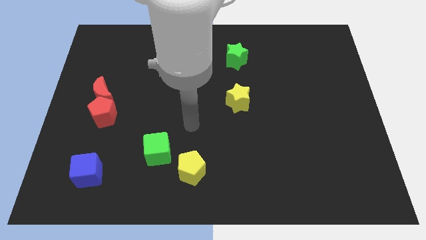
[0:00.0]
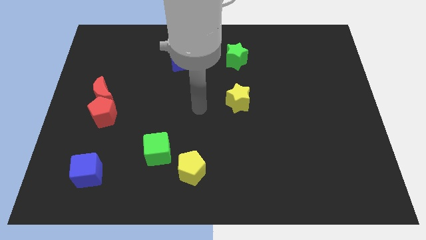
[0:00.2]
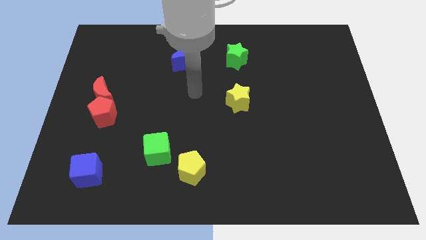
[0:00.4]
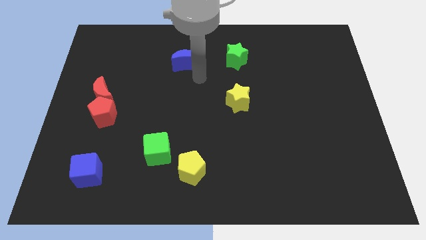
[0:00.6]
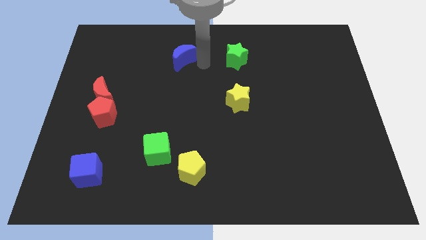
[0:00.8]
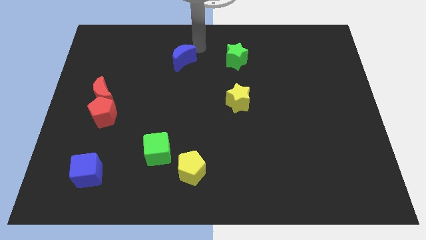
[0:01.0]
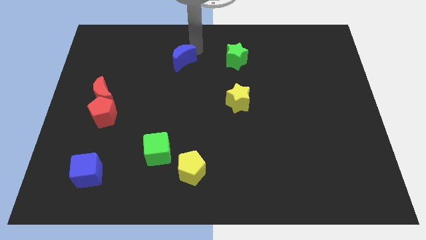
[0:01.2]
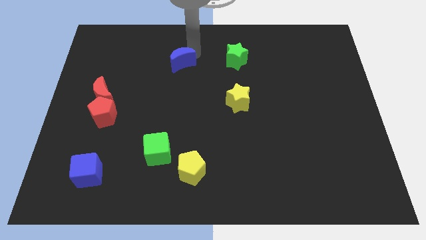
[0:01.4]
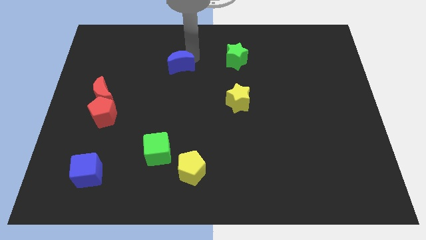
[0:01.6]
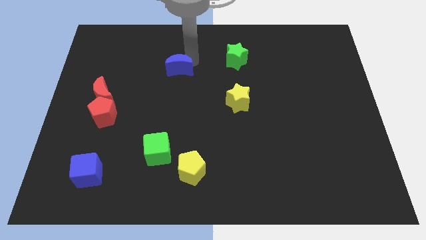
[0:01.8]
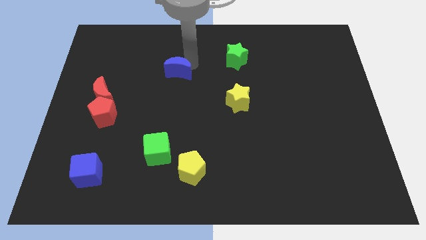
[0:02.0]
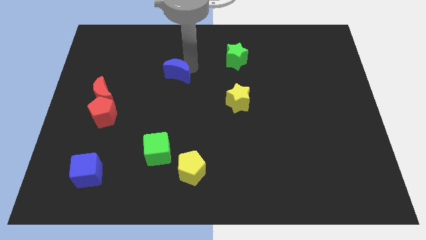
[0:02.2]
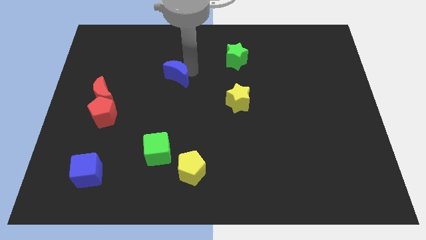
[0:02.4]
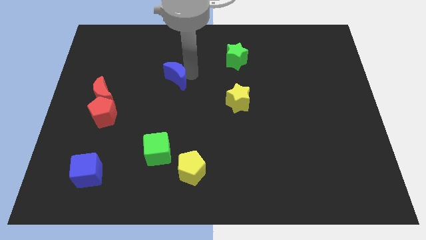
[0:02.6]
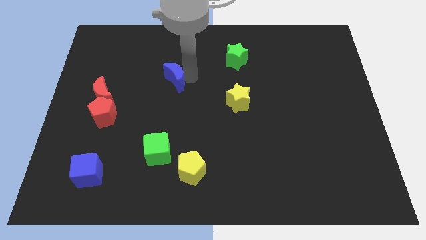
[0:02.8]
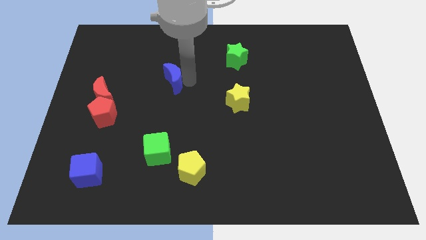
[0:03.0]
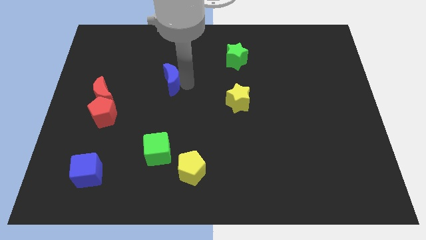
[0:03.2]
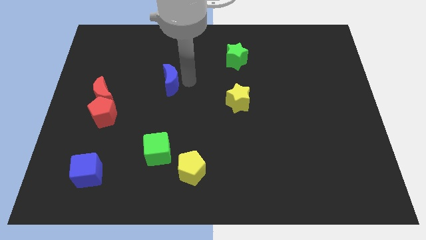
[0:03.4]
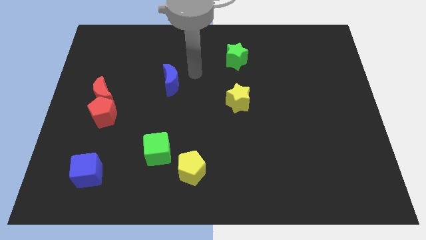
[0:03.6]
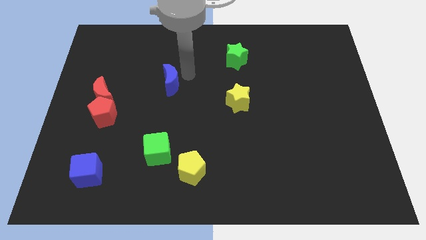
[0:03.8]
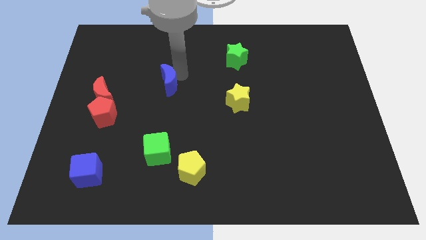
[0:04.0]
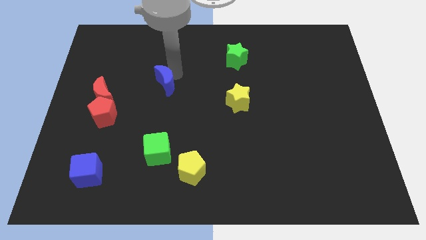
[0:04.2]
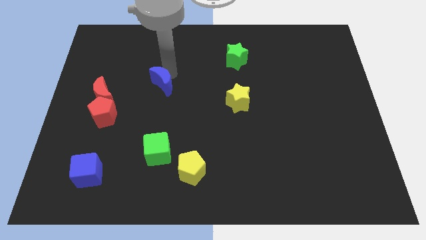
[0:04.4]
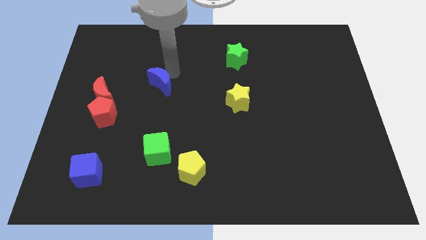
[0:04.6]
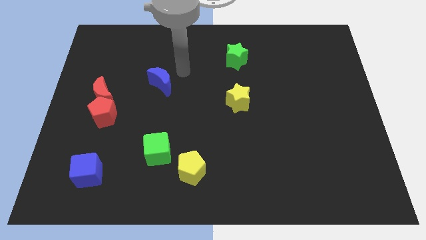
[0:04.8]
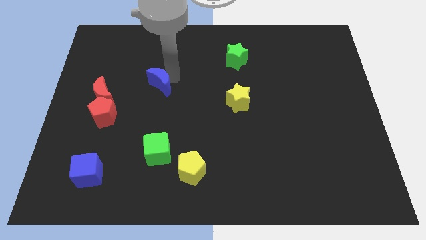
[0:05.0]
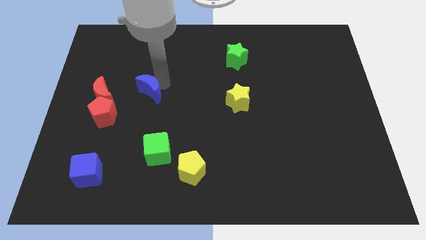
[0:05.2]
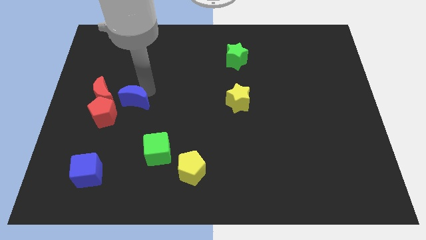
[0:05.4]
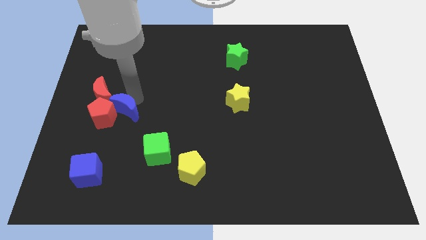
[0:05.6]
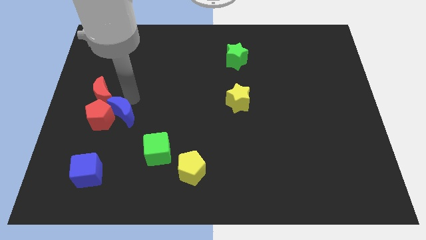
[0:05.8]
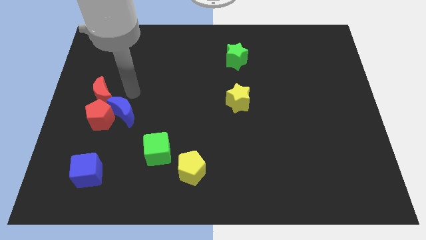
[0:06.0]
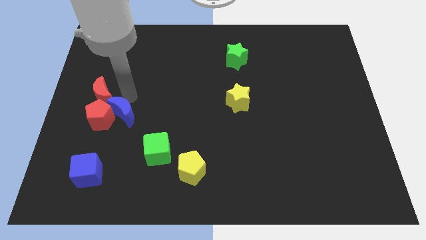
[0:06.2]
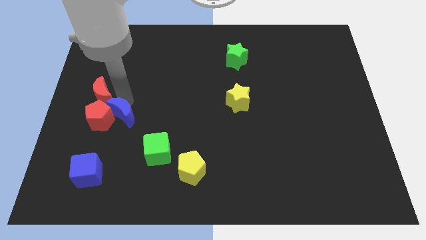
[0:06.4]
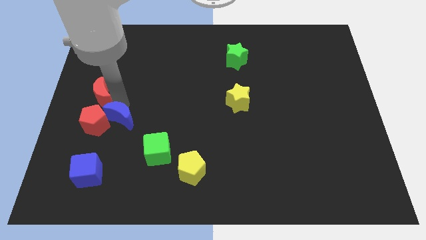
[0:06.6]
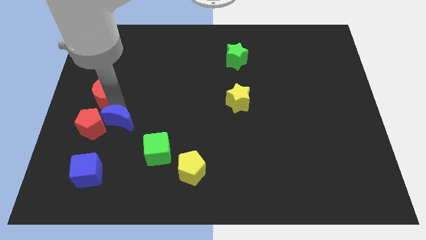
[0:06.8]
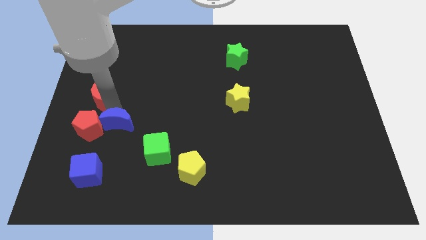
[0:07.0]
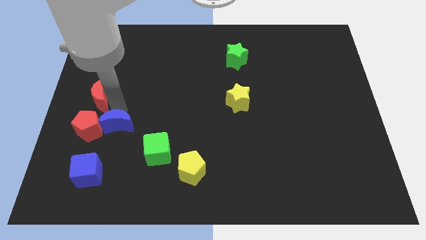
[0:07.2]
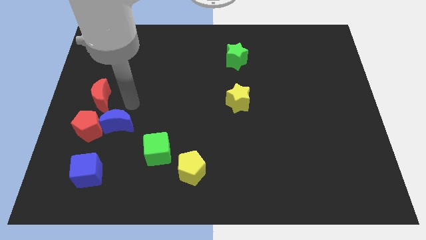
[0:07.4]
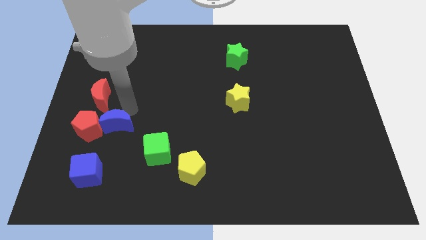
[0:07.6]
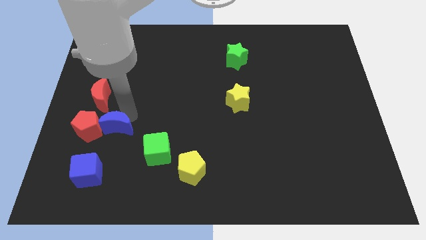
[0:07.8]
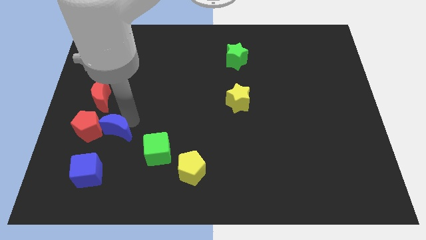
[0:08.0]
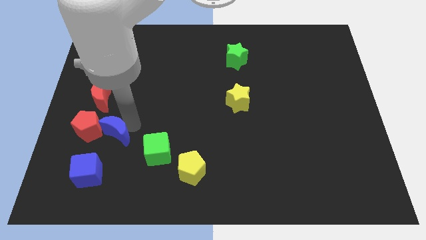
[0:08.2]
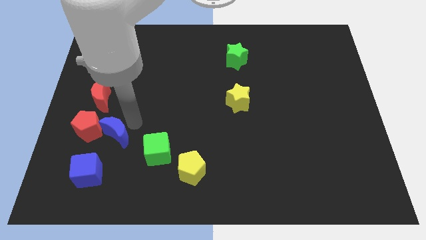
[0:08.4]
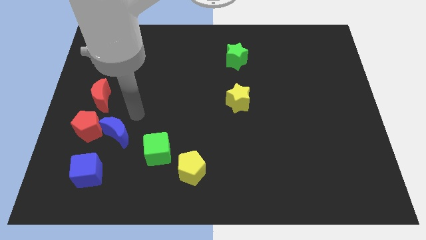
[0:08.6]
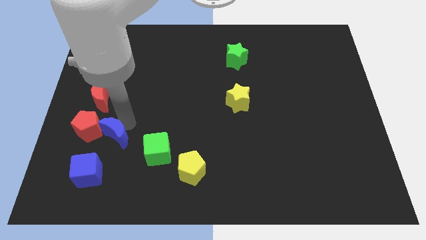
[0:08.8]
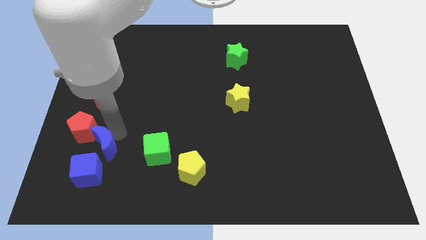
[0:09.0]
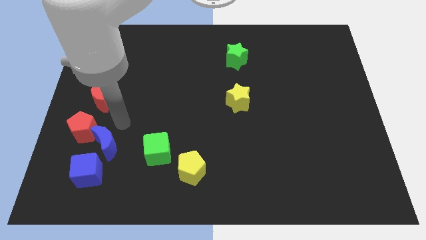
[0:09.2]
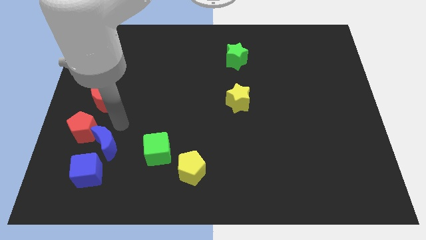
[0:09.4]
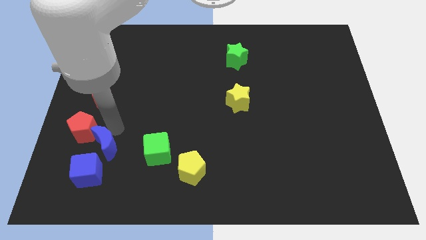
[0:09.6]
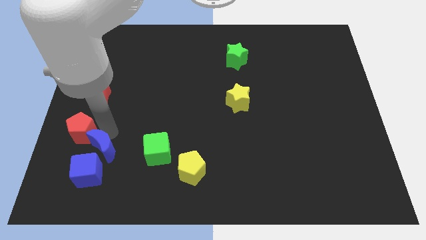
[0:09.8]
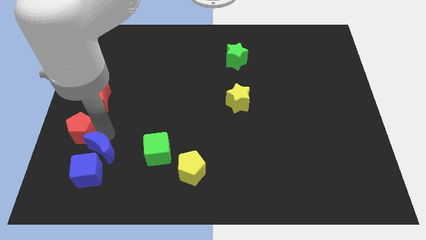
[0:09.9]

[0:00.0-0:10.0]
put the blue moon towards the blue cube

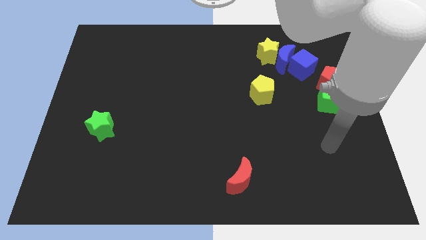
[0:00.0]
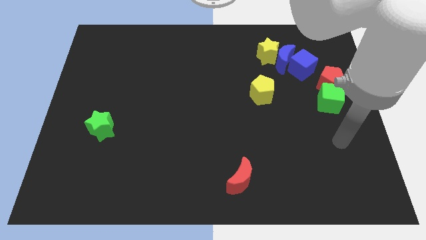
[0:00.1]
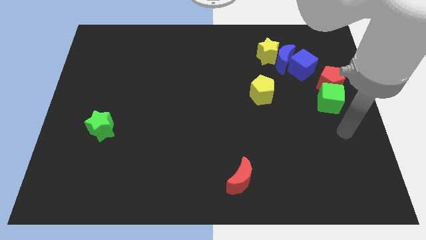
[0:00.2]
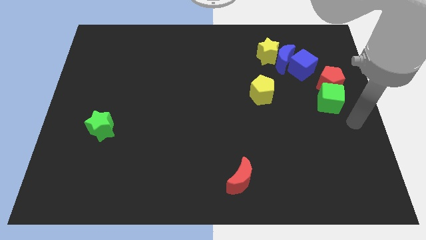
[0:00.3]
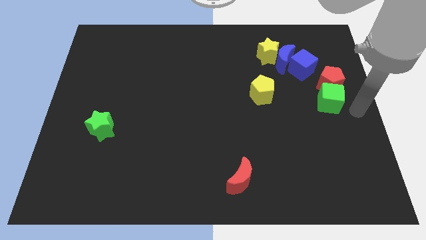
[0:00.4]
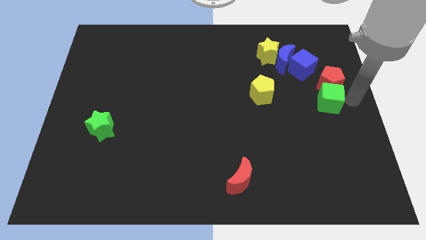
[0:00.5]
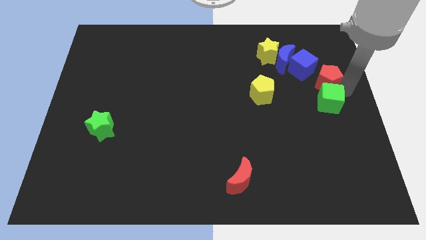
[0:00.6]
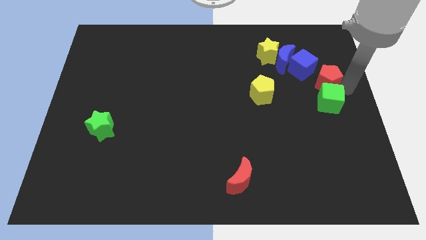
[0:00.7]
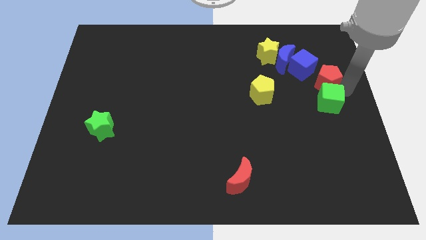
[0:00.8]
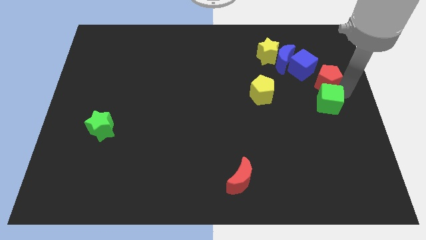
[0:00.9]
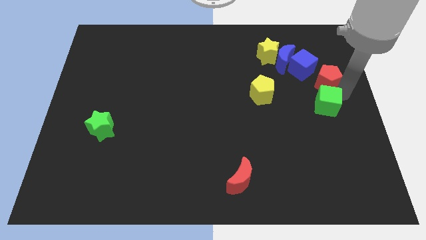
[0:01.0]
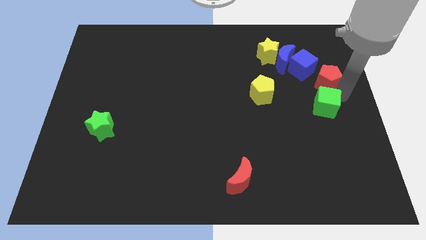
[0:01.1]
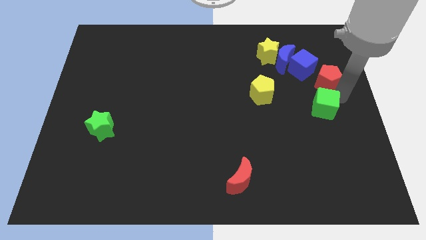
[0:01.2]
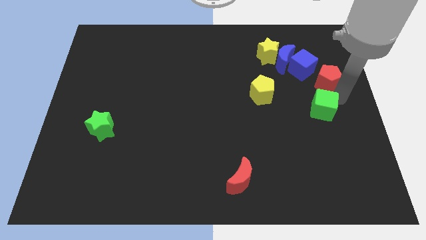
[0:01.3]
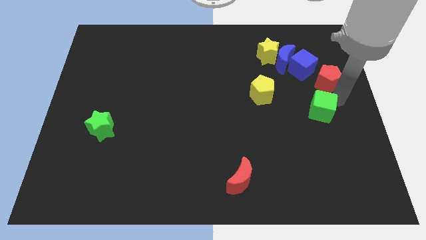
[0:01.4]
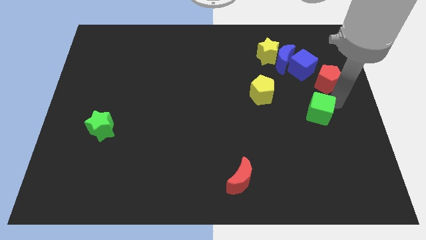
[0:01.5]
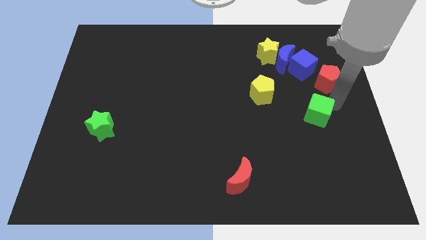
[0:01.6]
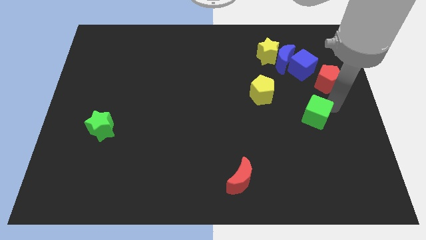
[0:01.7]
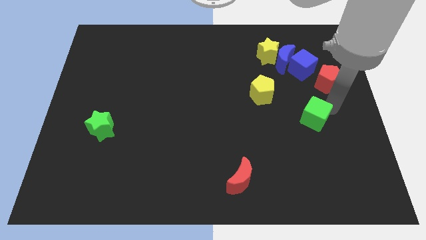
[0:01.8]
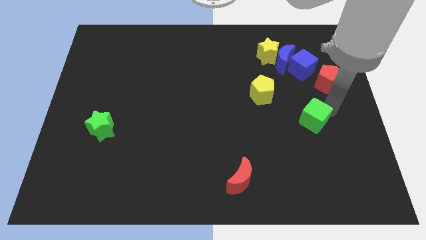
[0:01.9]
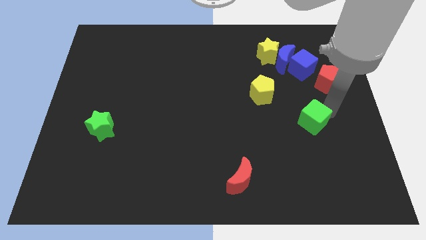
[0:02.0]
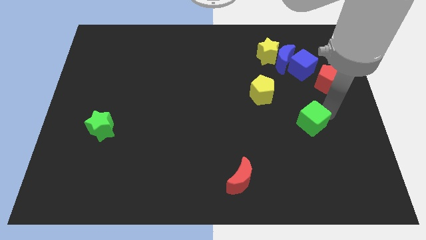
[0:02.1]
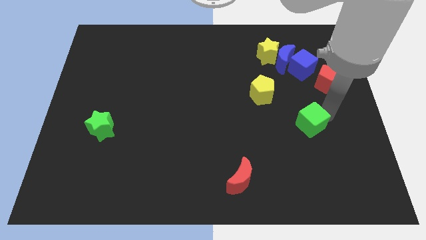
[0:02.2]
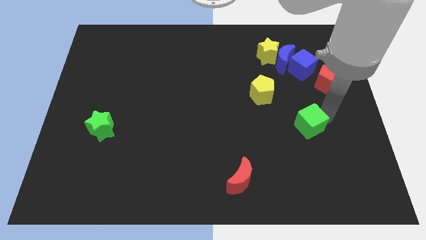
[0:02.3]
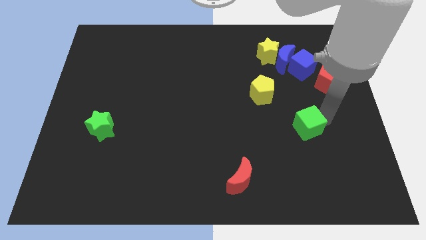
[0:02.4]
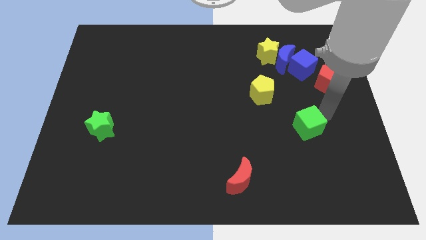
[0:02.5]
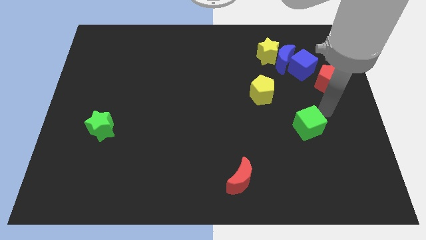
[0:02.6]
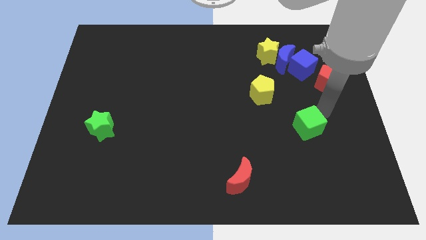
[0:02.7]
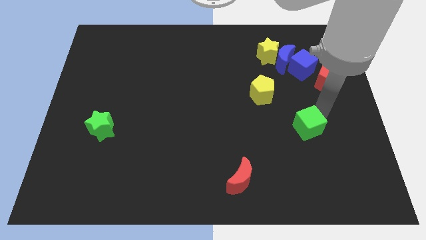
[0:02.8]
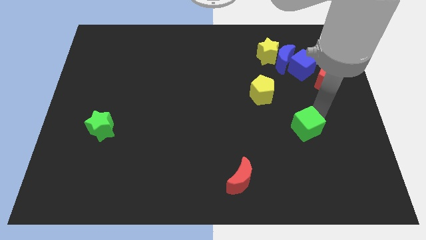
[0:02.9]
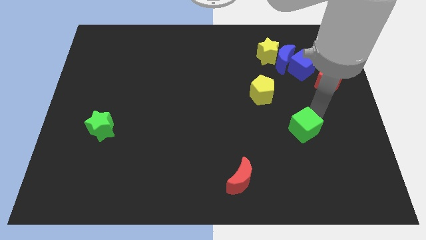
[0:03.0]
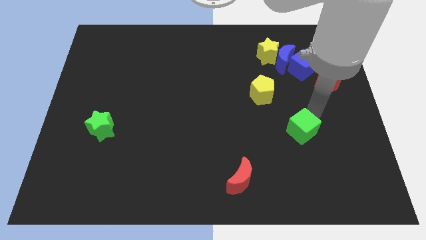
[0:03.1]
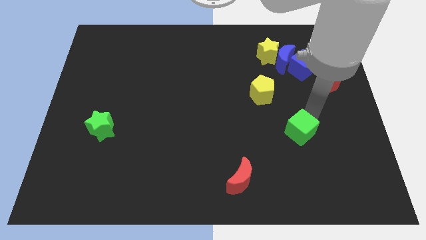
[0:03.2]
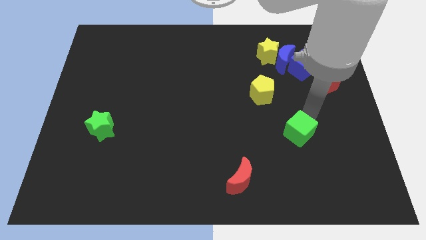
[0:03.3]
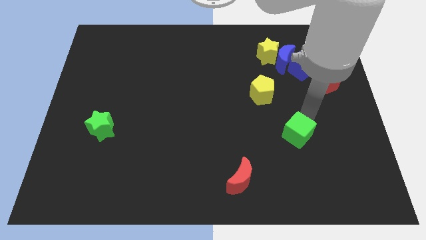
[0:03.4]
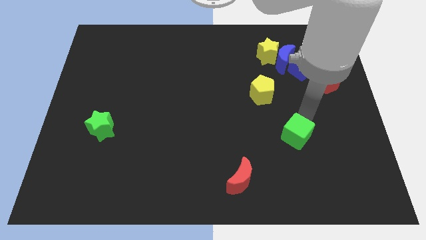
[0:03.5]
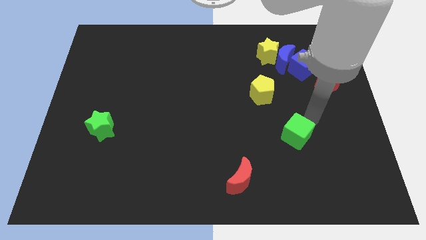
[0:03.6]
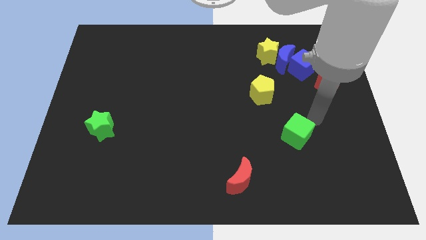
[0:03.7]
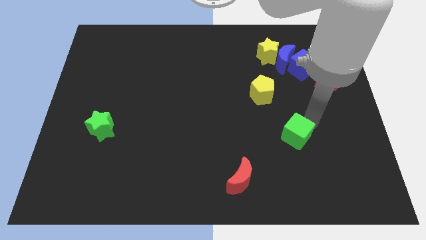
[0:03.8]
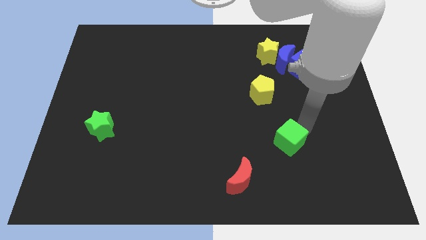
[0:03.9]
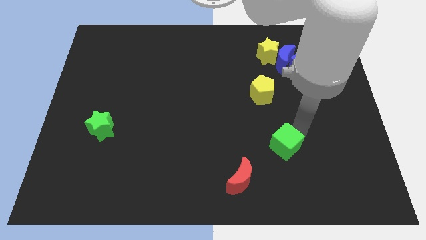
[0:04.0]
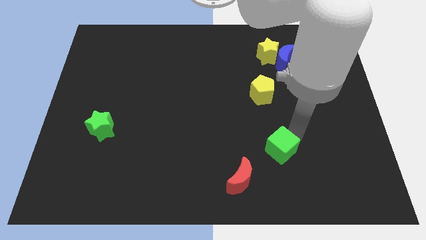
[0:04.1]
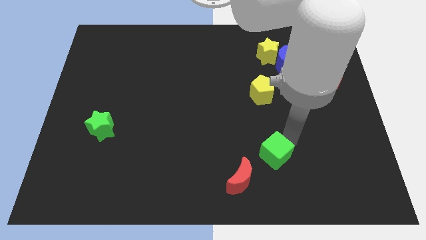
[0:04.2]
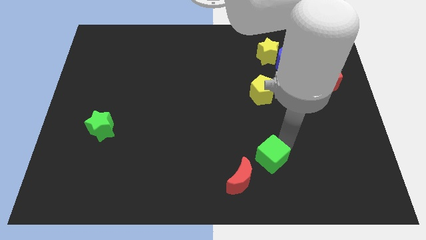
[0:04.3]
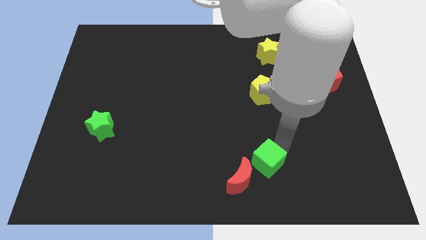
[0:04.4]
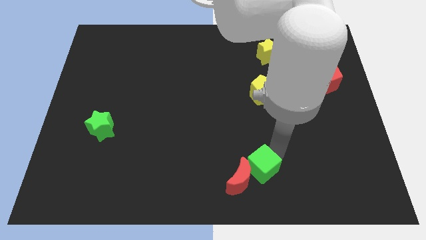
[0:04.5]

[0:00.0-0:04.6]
move the green cube to the red moon
